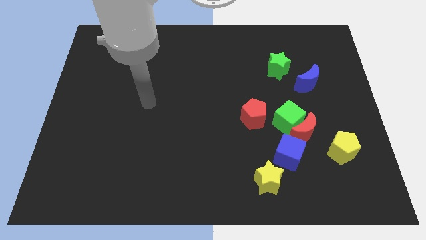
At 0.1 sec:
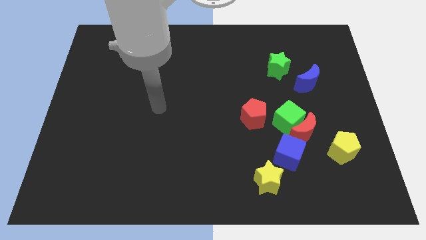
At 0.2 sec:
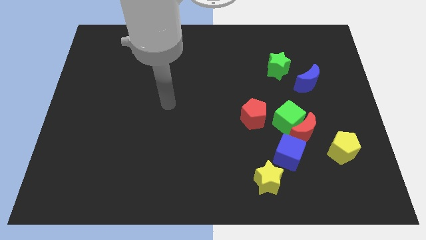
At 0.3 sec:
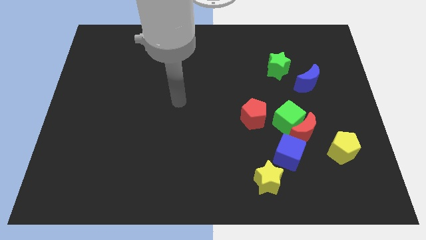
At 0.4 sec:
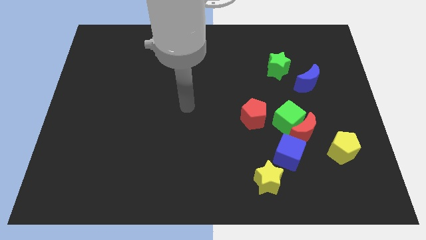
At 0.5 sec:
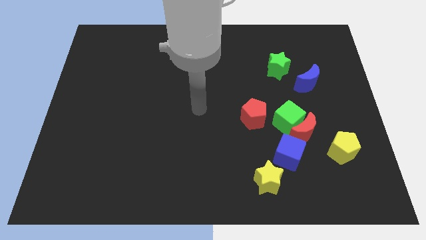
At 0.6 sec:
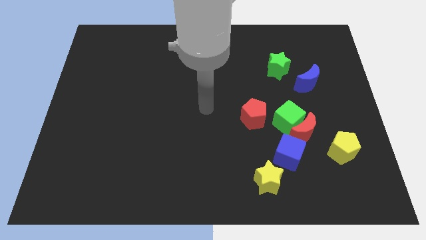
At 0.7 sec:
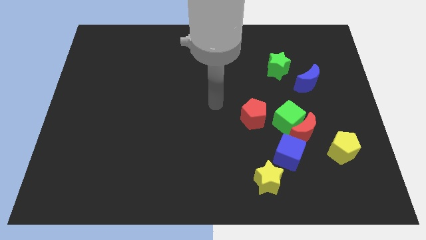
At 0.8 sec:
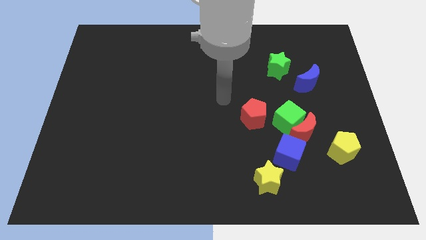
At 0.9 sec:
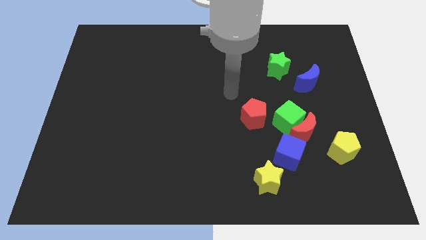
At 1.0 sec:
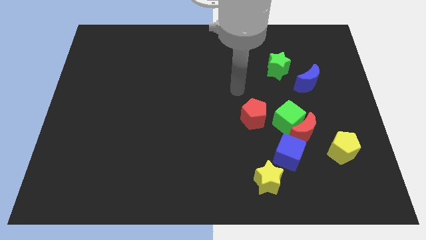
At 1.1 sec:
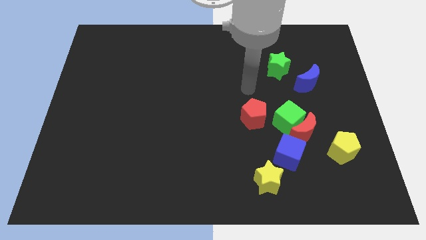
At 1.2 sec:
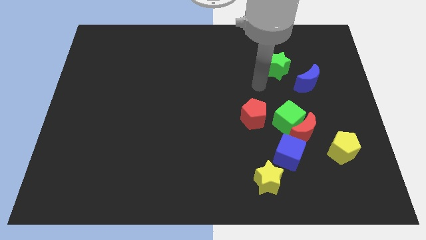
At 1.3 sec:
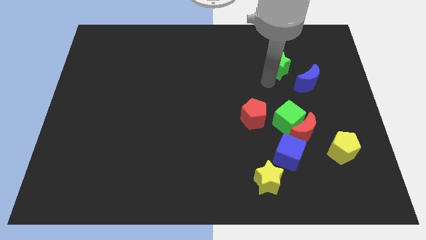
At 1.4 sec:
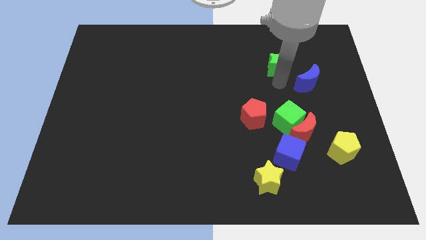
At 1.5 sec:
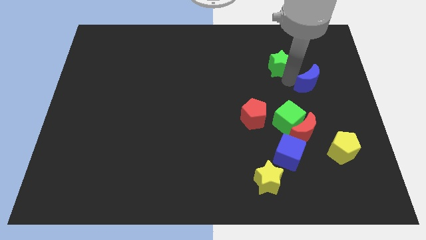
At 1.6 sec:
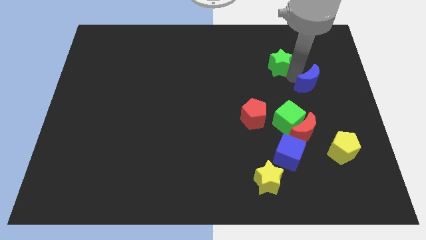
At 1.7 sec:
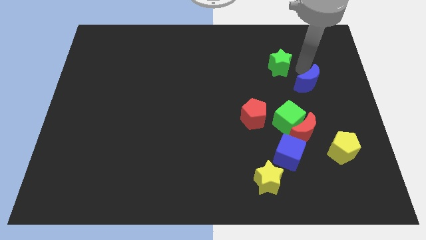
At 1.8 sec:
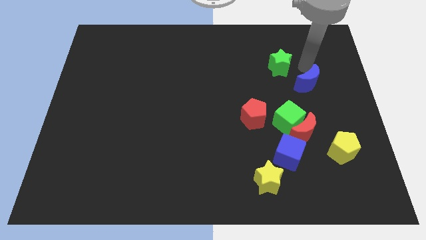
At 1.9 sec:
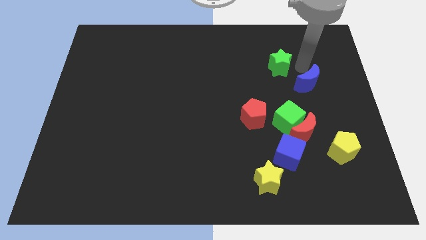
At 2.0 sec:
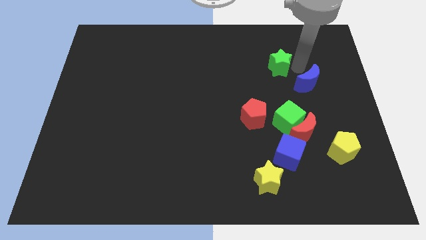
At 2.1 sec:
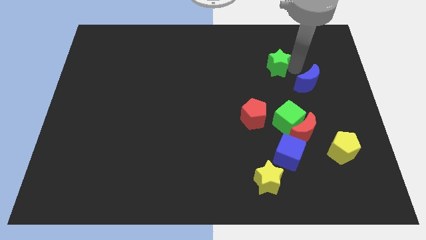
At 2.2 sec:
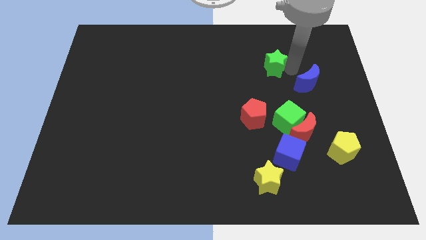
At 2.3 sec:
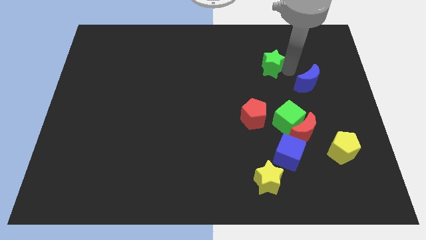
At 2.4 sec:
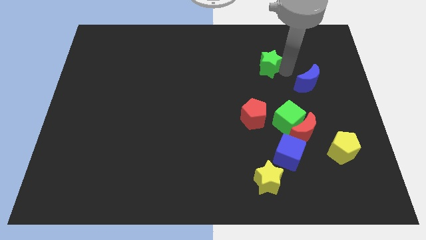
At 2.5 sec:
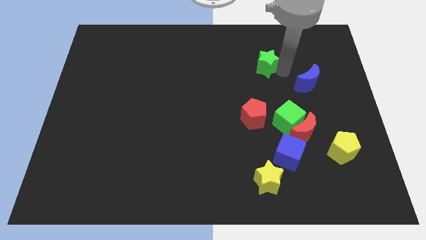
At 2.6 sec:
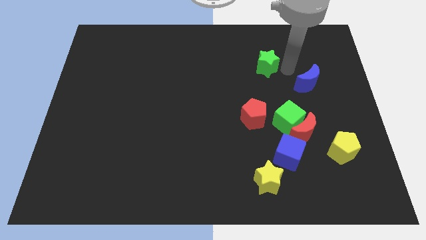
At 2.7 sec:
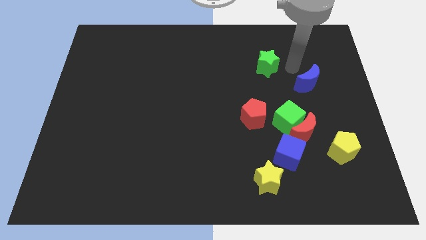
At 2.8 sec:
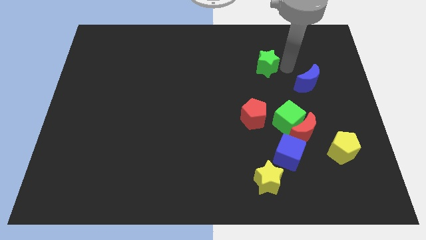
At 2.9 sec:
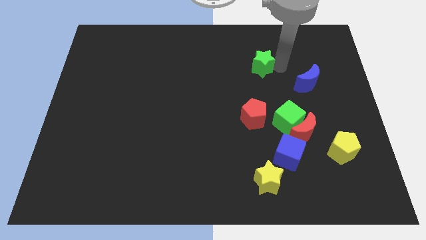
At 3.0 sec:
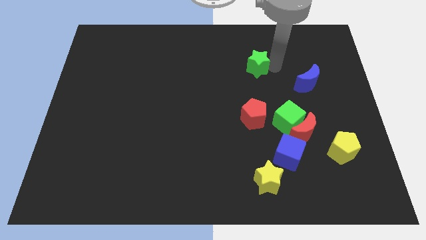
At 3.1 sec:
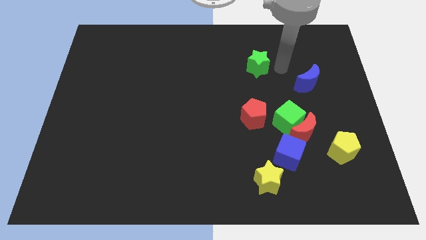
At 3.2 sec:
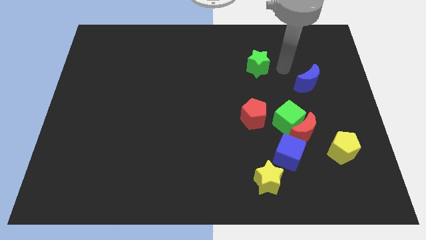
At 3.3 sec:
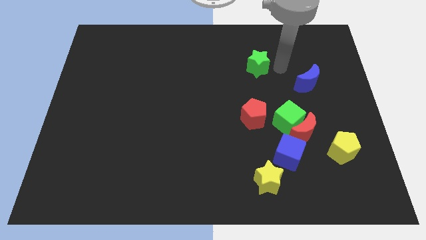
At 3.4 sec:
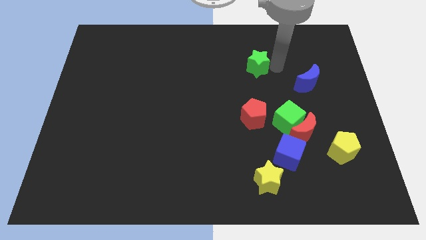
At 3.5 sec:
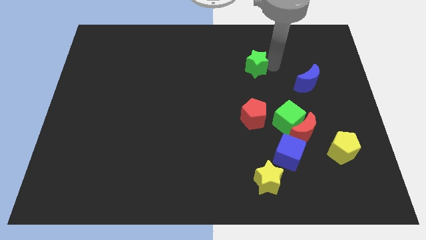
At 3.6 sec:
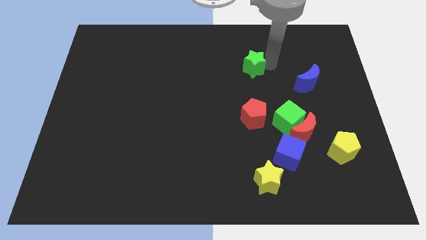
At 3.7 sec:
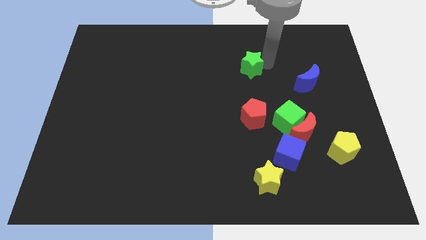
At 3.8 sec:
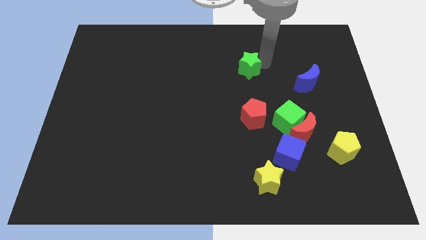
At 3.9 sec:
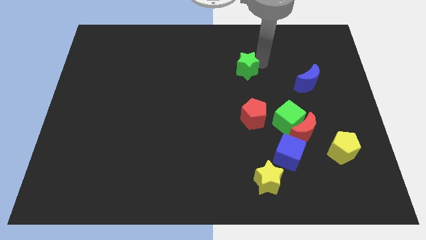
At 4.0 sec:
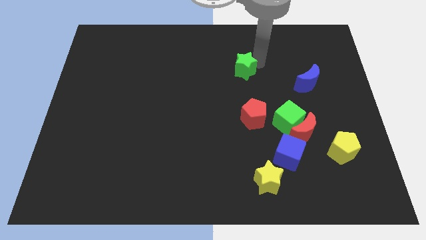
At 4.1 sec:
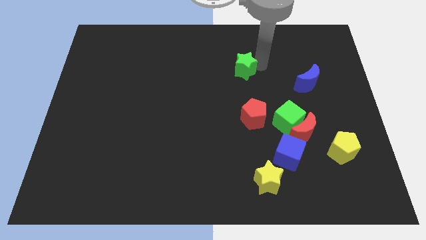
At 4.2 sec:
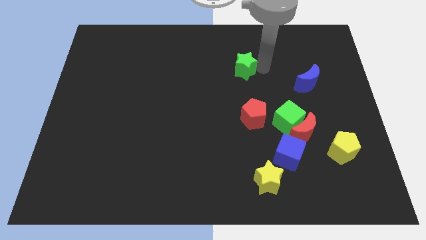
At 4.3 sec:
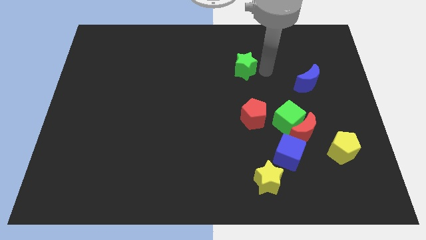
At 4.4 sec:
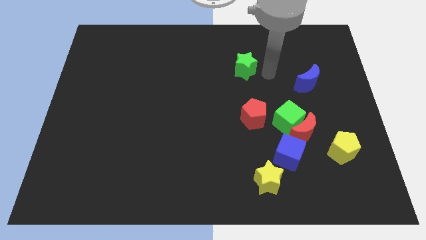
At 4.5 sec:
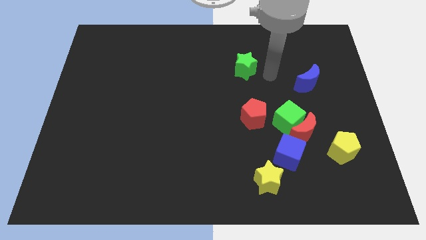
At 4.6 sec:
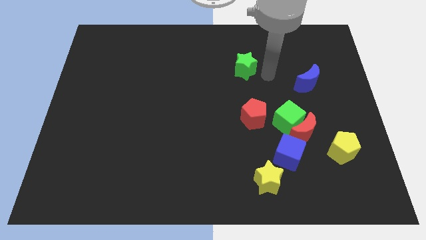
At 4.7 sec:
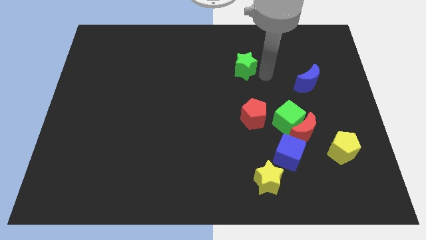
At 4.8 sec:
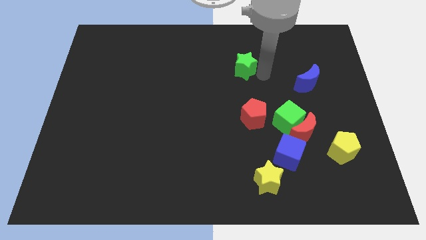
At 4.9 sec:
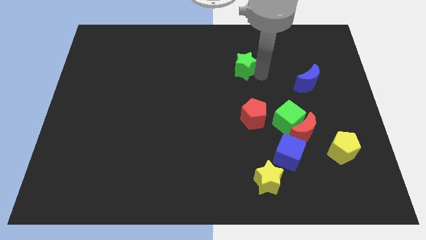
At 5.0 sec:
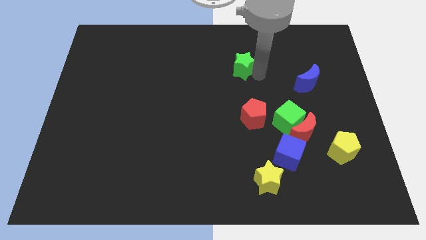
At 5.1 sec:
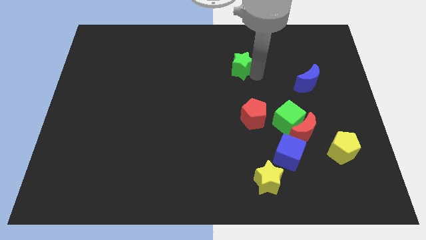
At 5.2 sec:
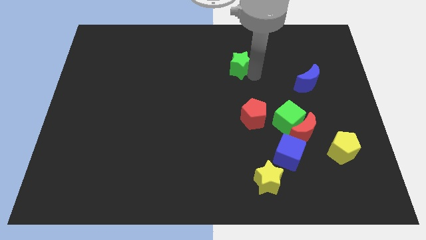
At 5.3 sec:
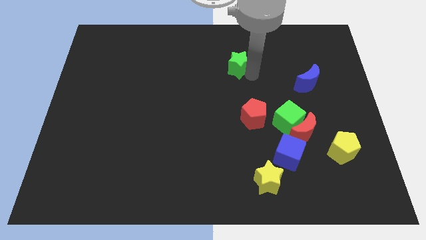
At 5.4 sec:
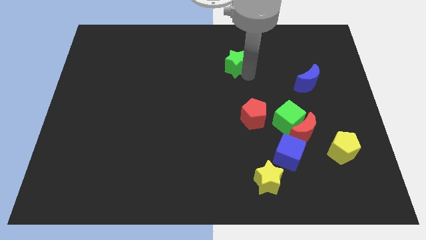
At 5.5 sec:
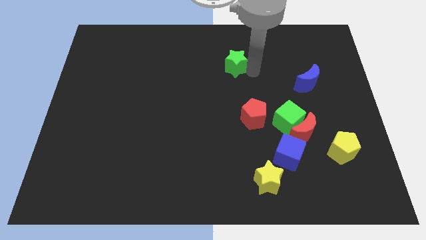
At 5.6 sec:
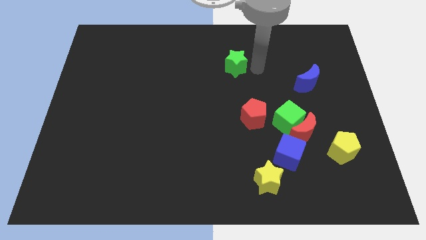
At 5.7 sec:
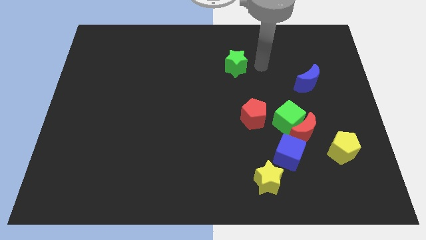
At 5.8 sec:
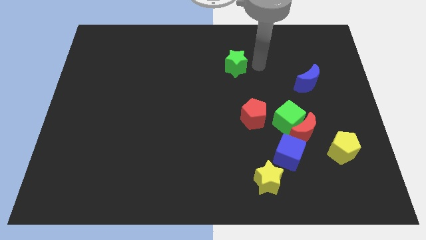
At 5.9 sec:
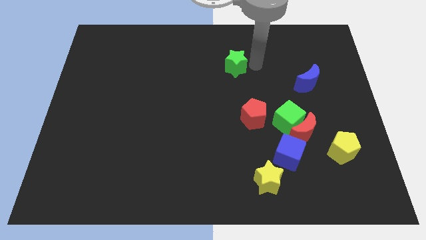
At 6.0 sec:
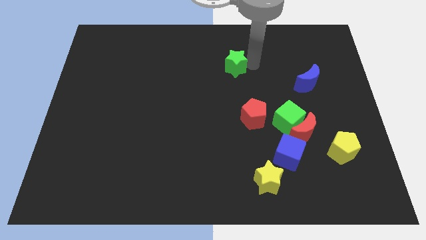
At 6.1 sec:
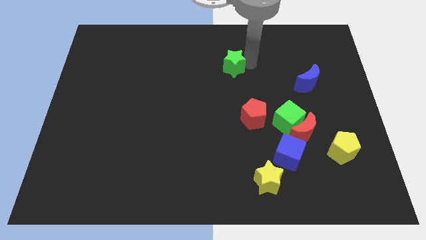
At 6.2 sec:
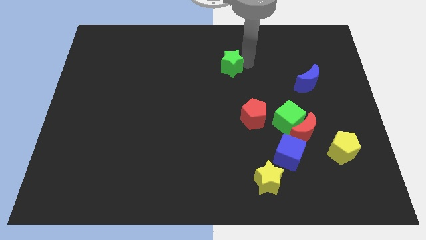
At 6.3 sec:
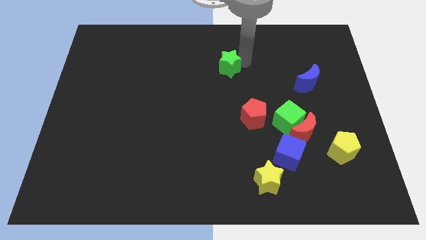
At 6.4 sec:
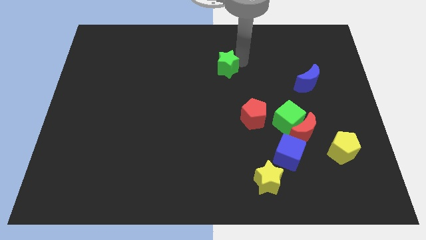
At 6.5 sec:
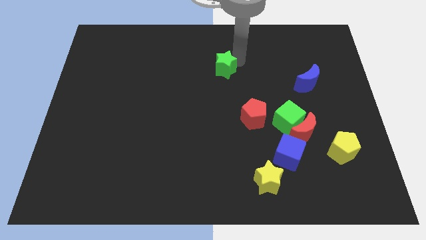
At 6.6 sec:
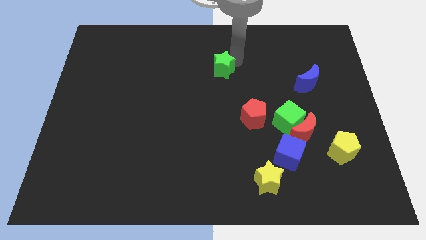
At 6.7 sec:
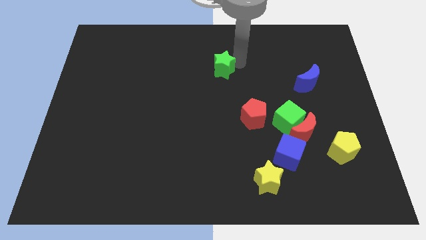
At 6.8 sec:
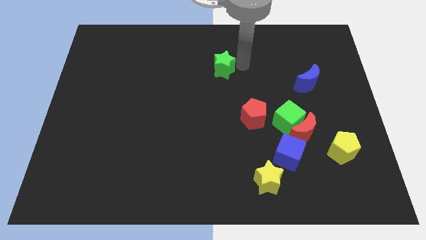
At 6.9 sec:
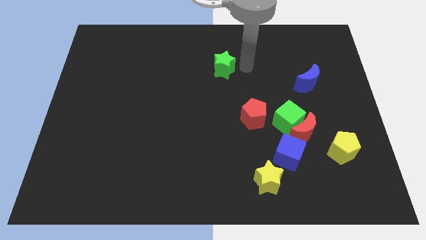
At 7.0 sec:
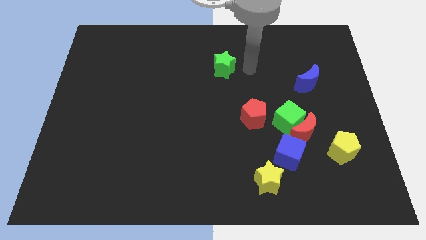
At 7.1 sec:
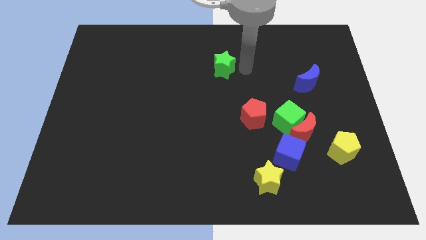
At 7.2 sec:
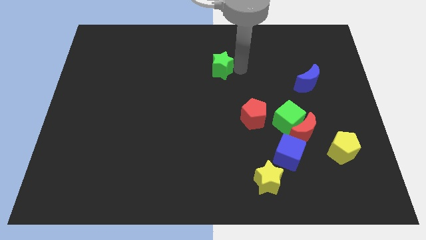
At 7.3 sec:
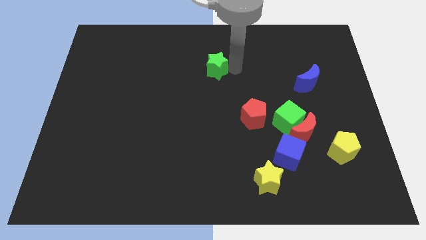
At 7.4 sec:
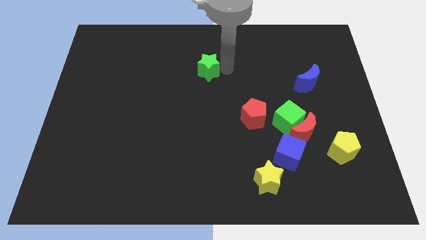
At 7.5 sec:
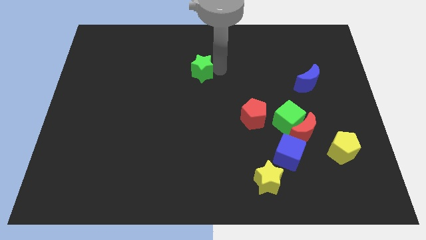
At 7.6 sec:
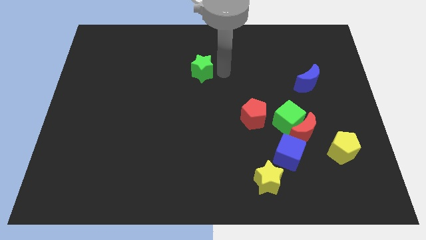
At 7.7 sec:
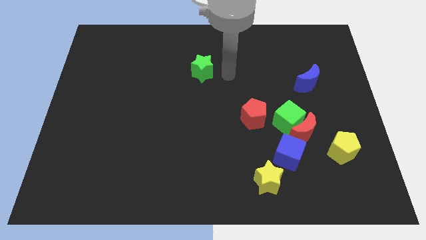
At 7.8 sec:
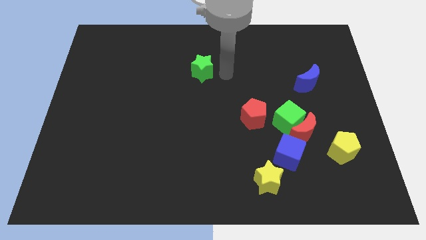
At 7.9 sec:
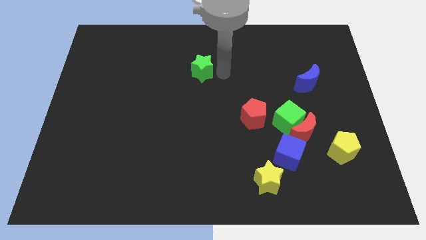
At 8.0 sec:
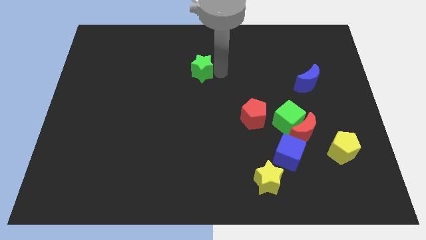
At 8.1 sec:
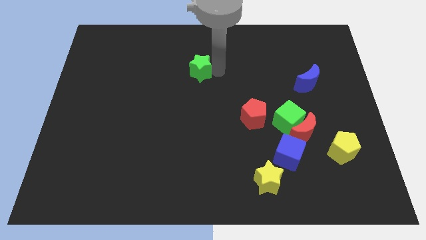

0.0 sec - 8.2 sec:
slide the green star to the left

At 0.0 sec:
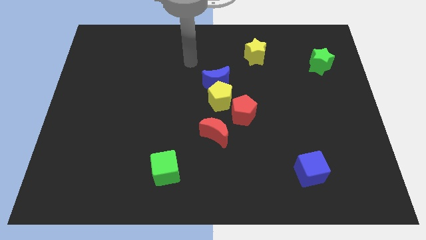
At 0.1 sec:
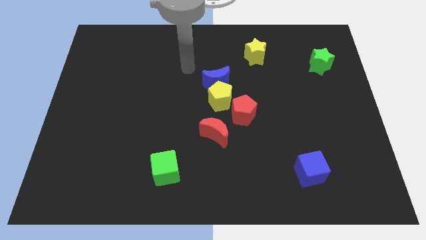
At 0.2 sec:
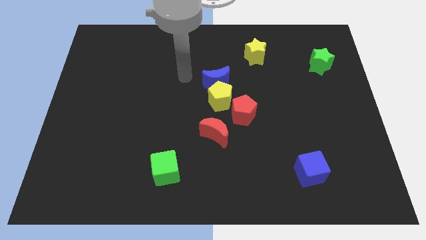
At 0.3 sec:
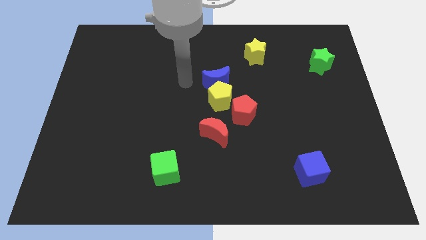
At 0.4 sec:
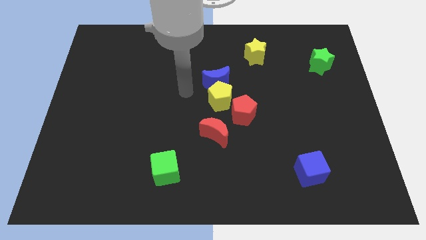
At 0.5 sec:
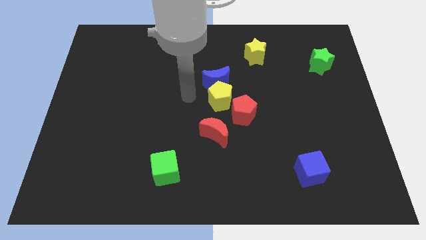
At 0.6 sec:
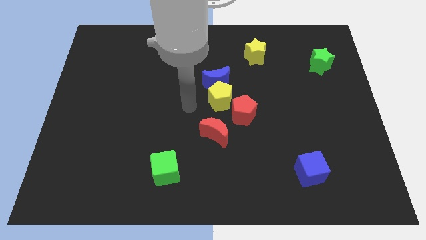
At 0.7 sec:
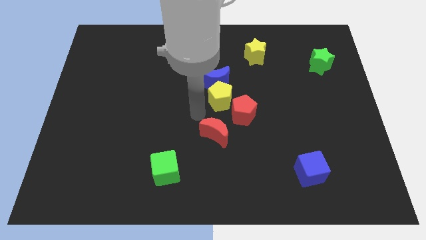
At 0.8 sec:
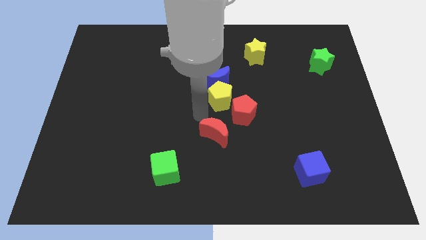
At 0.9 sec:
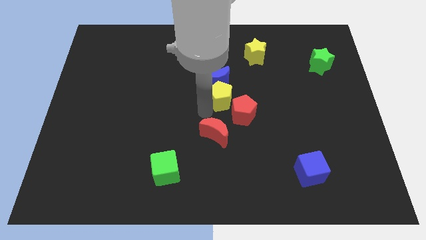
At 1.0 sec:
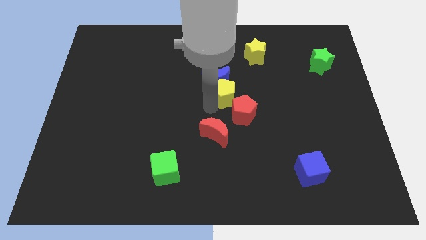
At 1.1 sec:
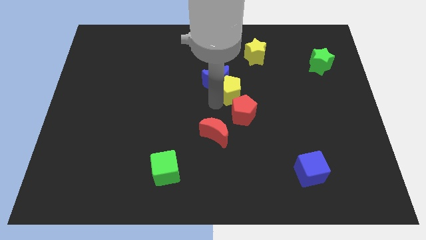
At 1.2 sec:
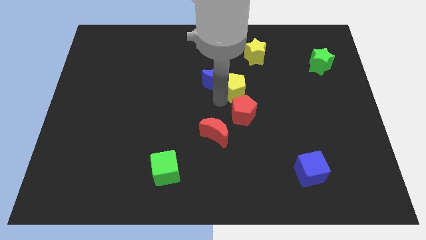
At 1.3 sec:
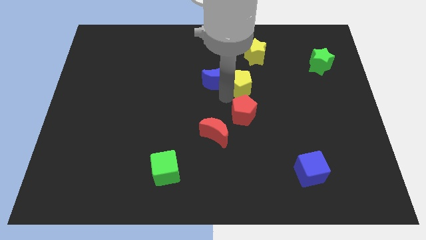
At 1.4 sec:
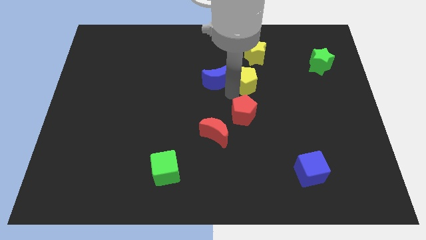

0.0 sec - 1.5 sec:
slightly slide the yellow pentagon upwards and right
